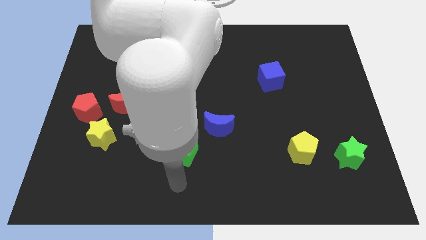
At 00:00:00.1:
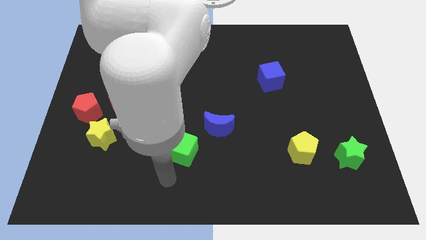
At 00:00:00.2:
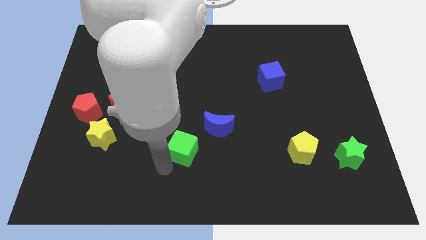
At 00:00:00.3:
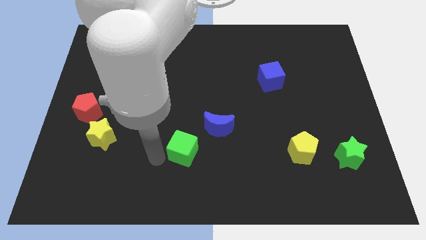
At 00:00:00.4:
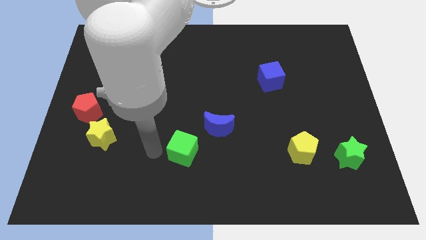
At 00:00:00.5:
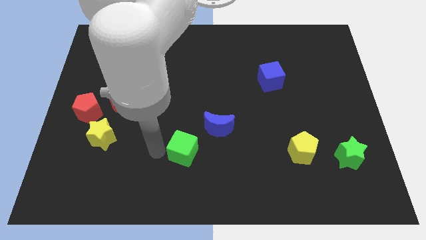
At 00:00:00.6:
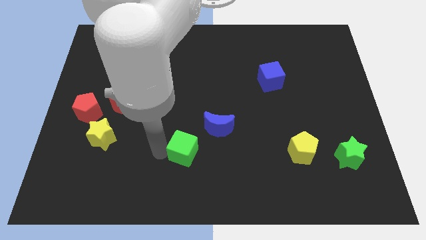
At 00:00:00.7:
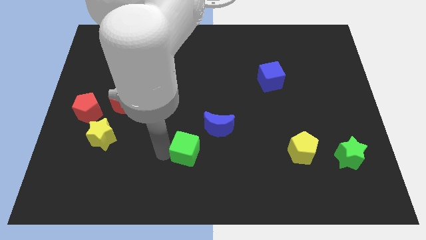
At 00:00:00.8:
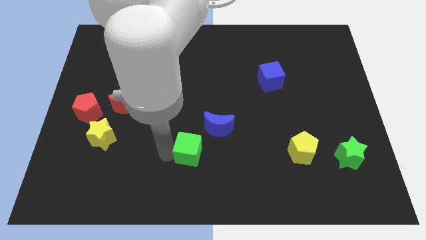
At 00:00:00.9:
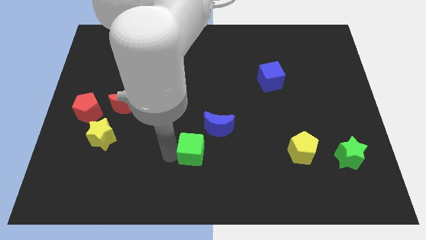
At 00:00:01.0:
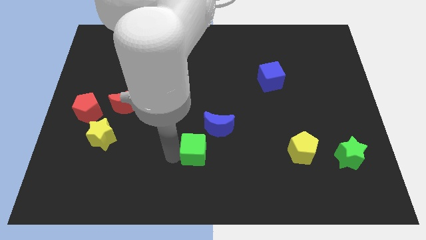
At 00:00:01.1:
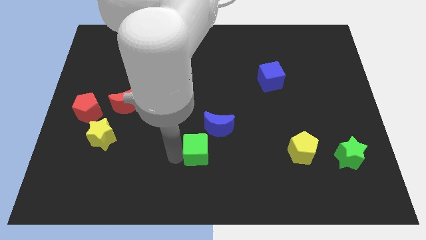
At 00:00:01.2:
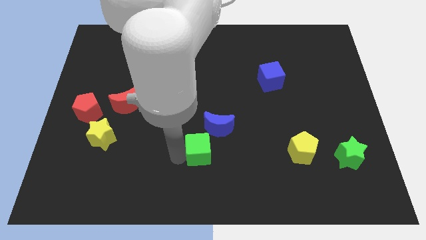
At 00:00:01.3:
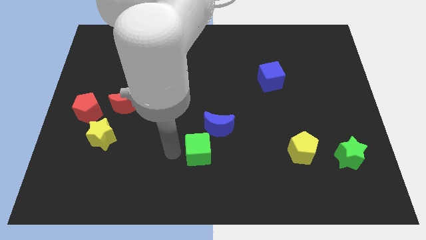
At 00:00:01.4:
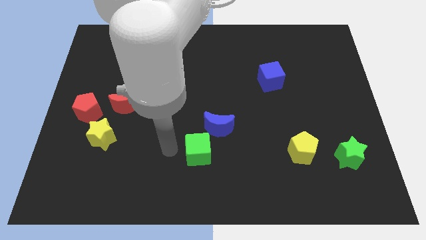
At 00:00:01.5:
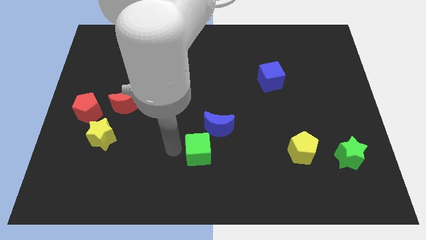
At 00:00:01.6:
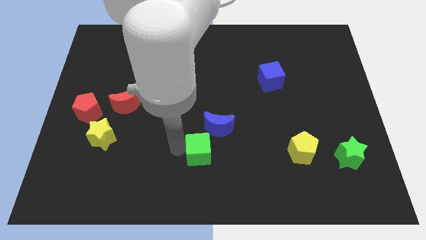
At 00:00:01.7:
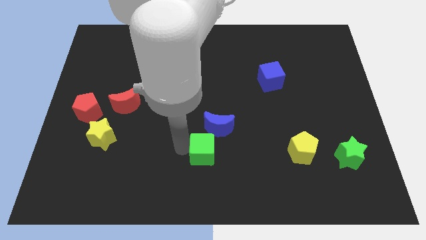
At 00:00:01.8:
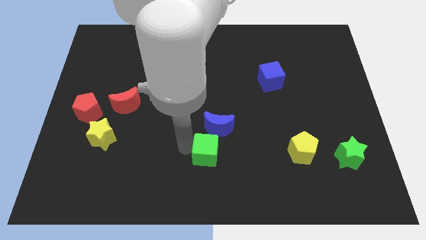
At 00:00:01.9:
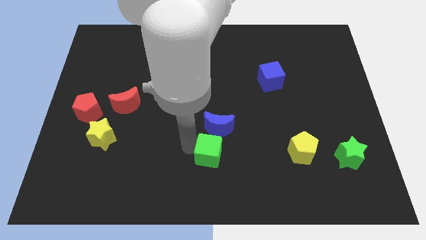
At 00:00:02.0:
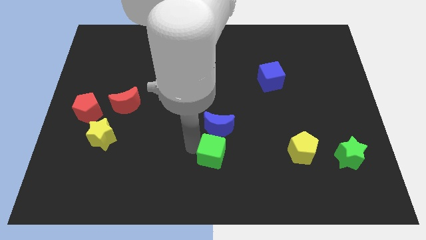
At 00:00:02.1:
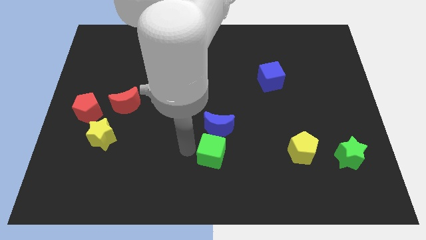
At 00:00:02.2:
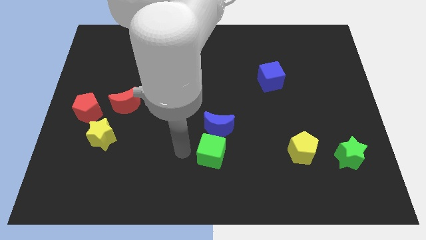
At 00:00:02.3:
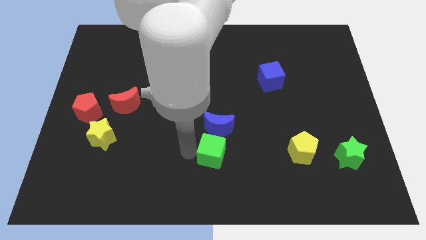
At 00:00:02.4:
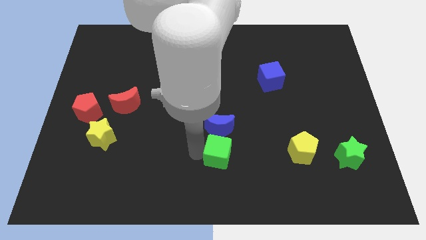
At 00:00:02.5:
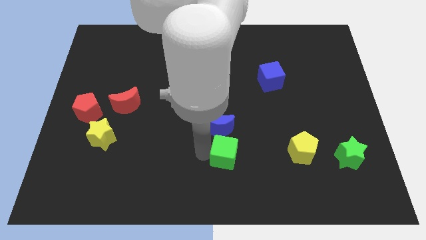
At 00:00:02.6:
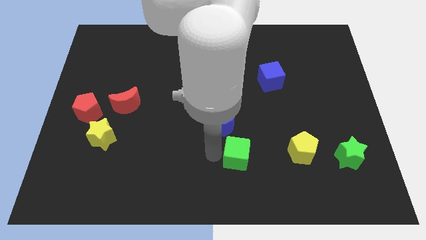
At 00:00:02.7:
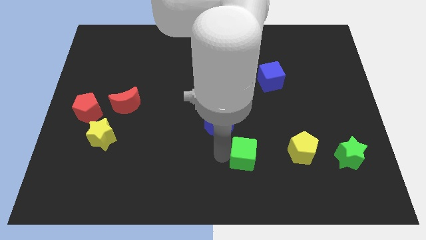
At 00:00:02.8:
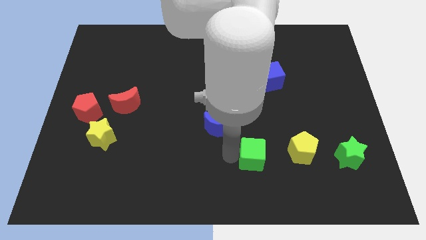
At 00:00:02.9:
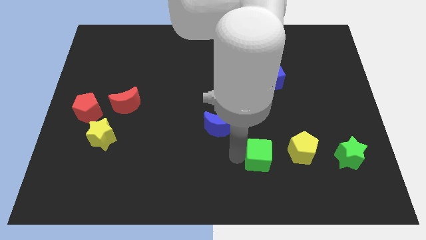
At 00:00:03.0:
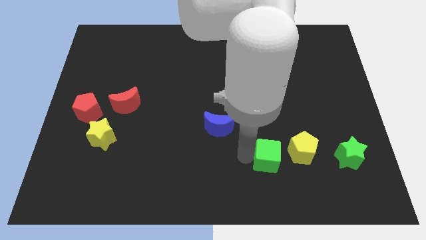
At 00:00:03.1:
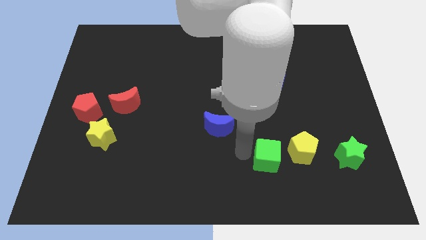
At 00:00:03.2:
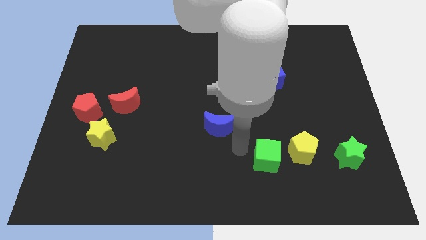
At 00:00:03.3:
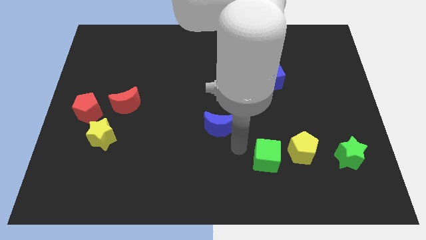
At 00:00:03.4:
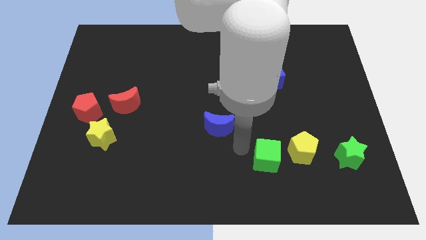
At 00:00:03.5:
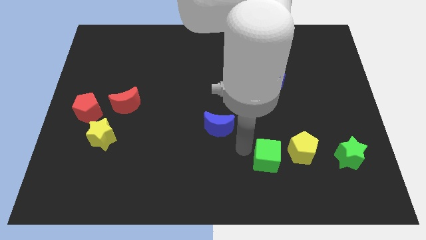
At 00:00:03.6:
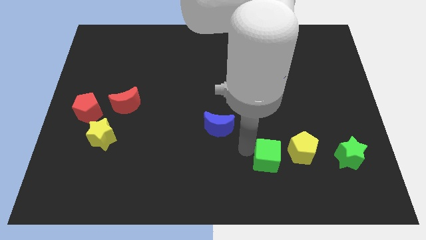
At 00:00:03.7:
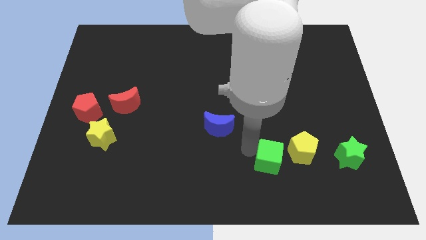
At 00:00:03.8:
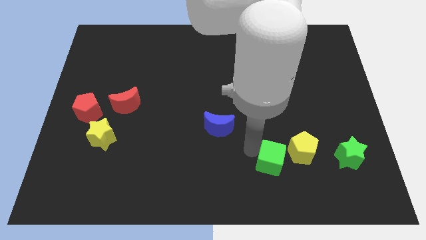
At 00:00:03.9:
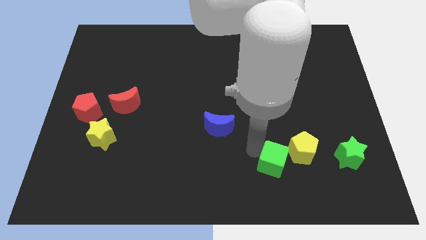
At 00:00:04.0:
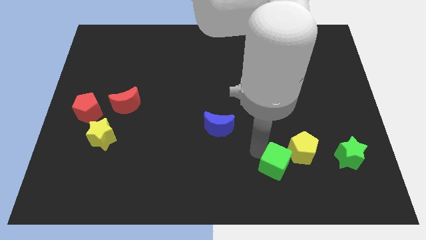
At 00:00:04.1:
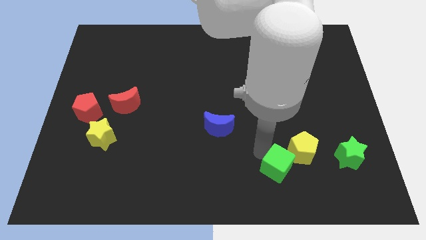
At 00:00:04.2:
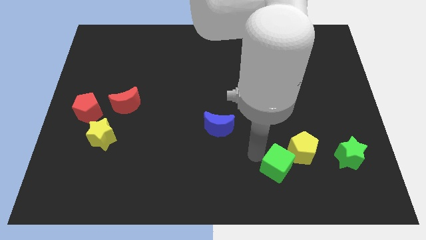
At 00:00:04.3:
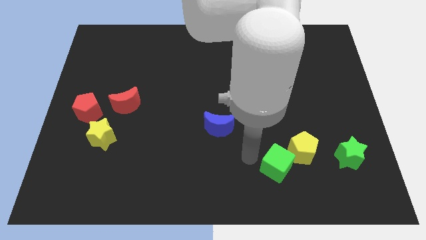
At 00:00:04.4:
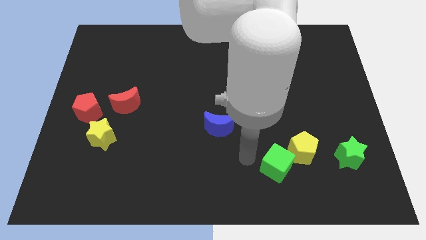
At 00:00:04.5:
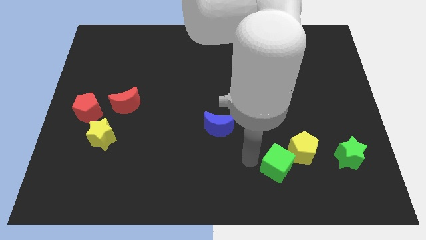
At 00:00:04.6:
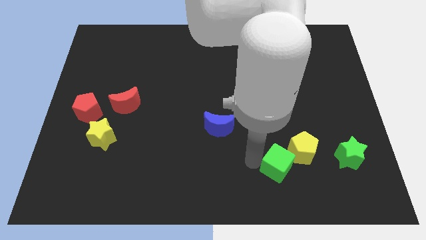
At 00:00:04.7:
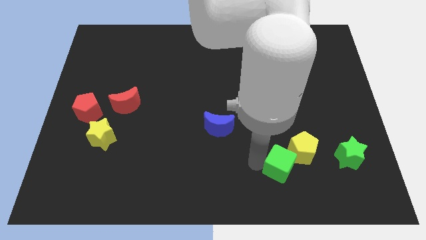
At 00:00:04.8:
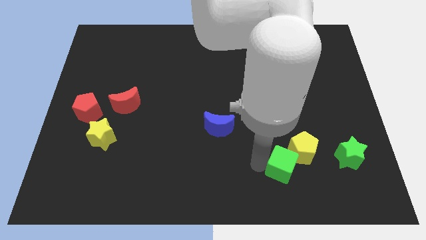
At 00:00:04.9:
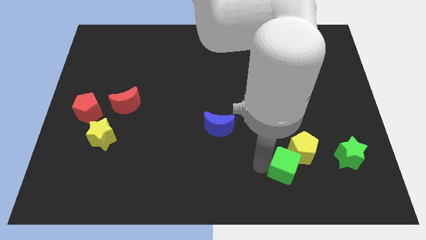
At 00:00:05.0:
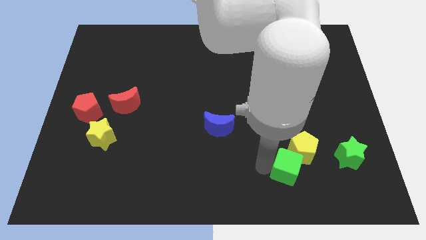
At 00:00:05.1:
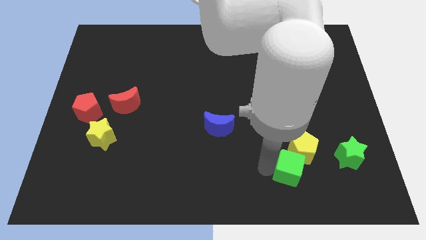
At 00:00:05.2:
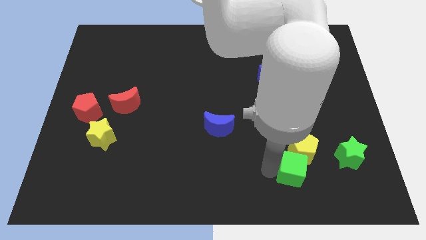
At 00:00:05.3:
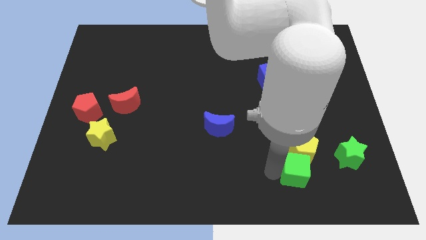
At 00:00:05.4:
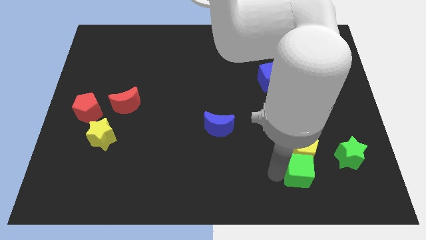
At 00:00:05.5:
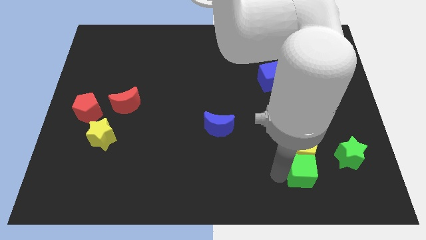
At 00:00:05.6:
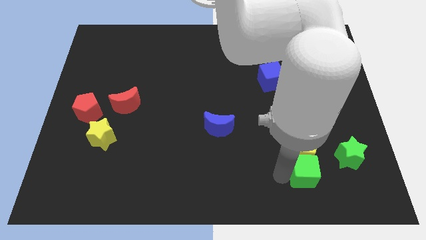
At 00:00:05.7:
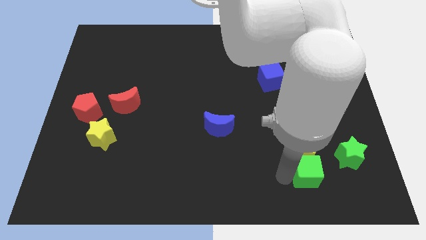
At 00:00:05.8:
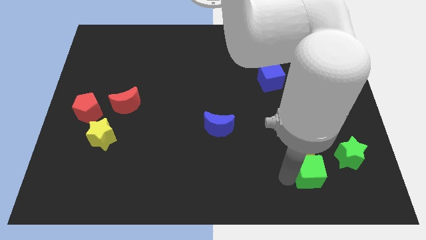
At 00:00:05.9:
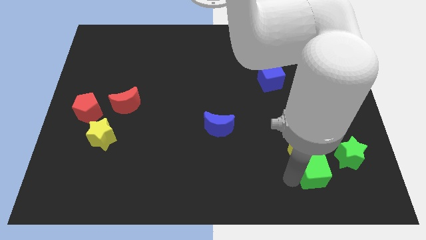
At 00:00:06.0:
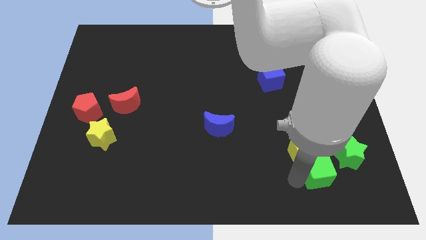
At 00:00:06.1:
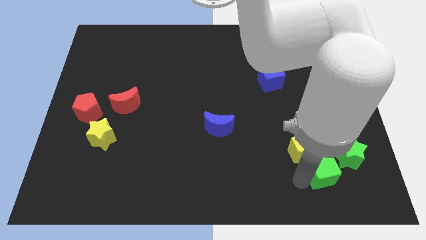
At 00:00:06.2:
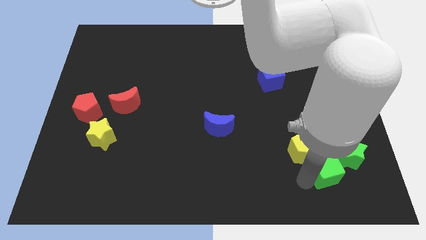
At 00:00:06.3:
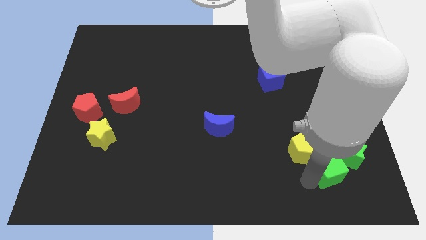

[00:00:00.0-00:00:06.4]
move the green cube close to the green star
